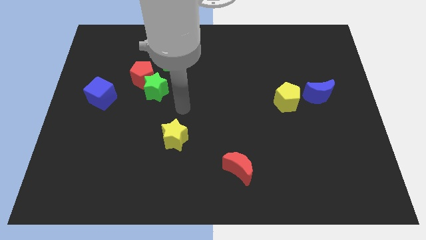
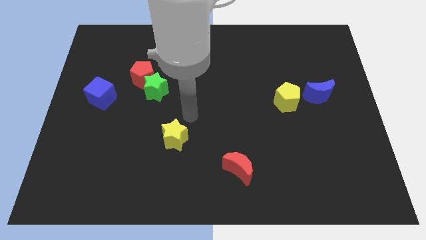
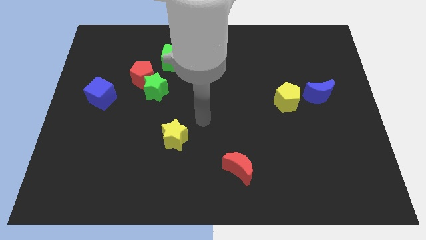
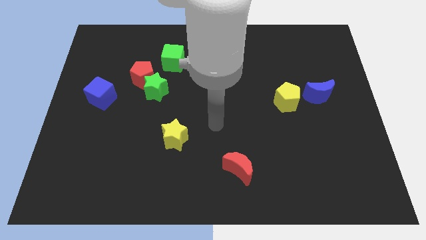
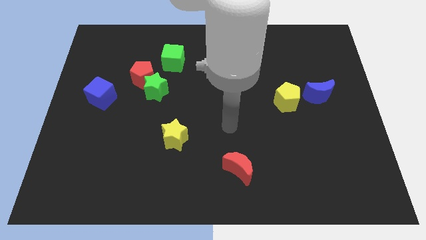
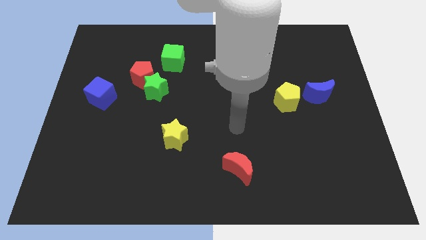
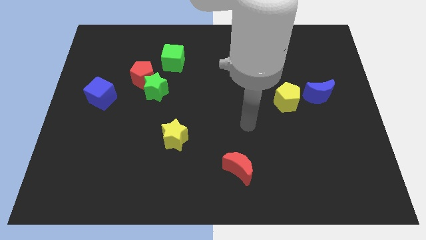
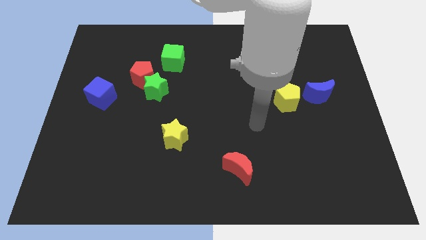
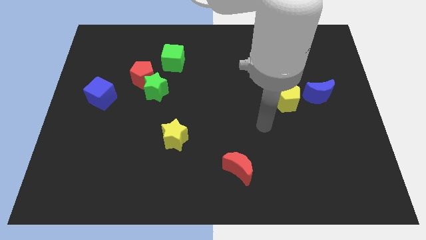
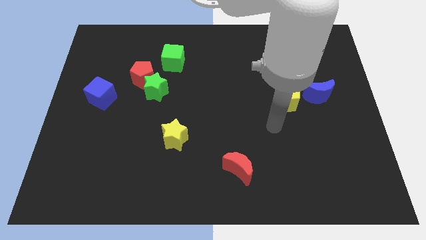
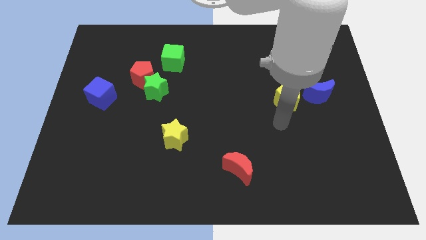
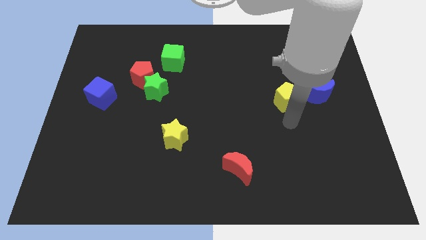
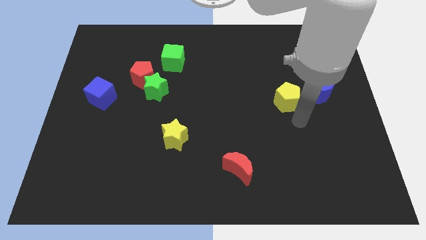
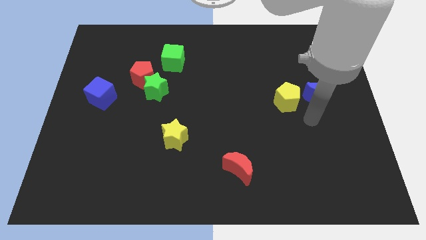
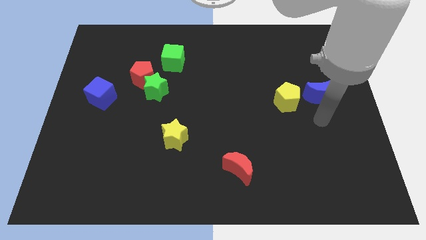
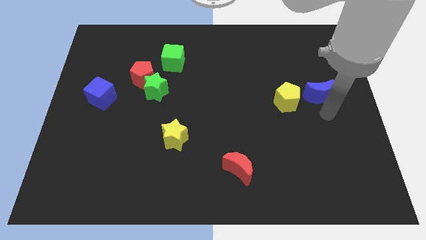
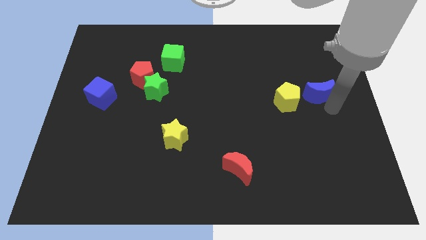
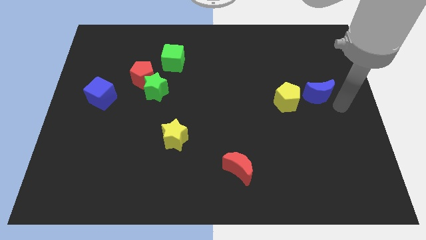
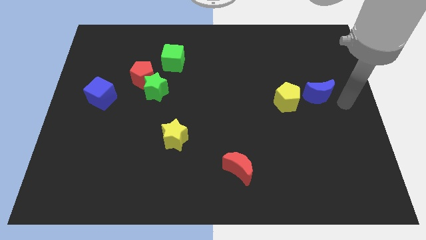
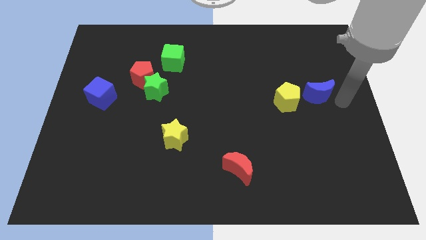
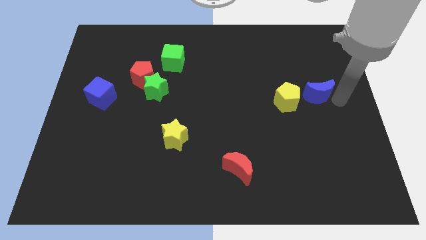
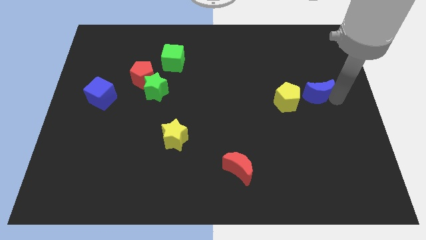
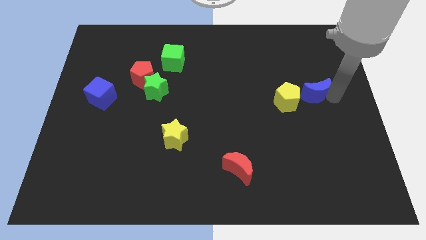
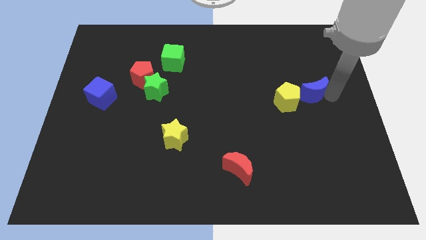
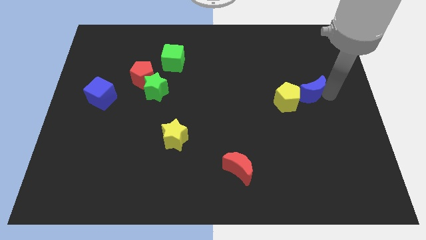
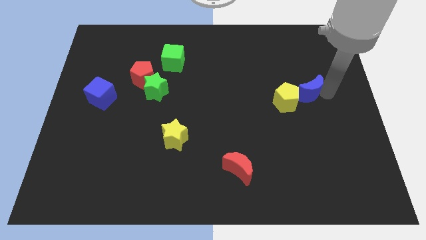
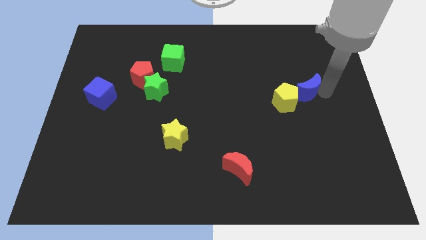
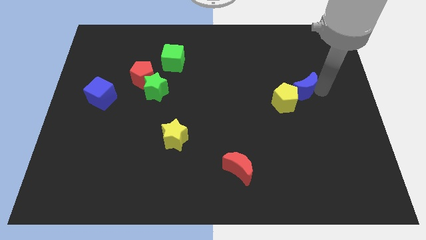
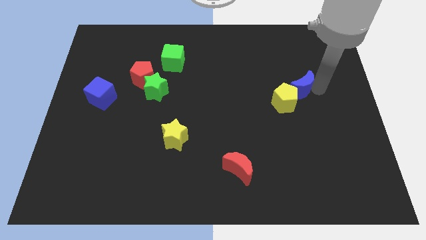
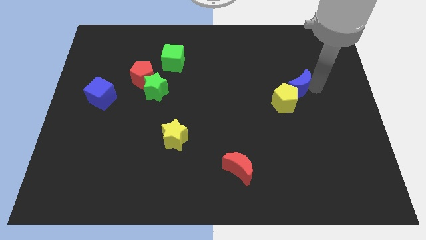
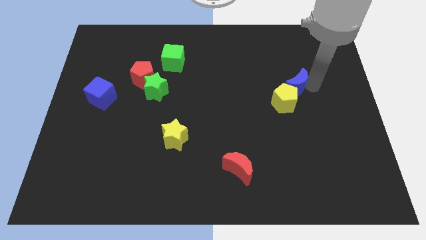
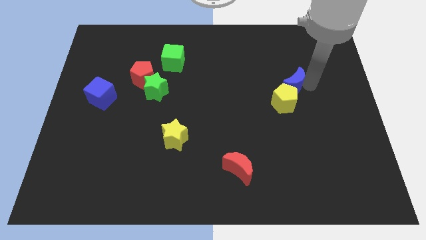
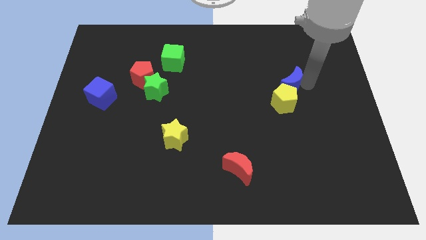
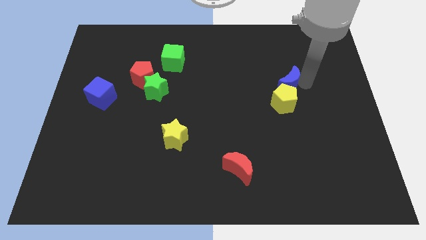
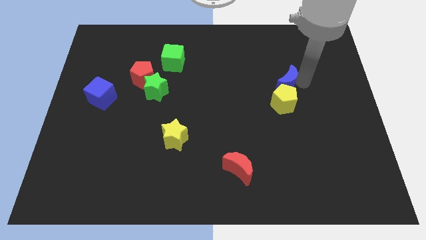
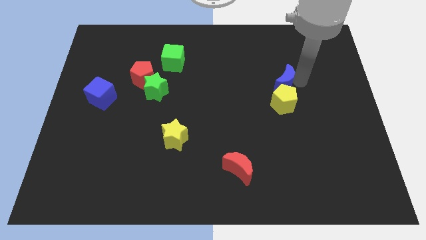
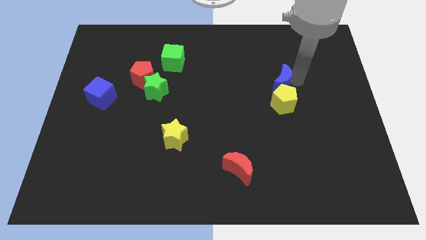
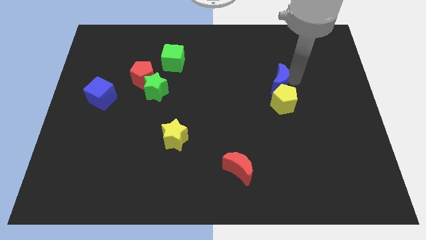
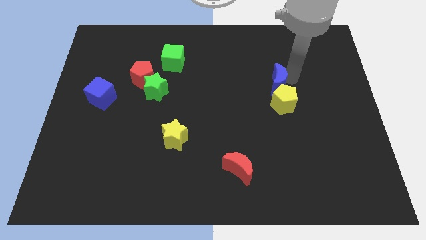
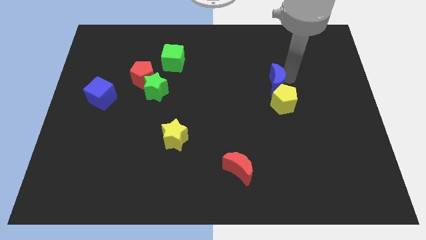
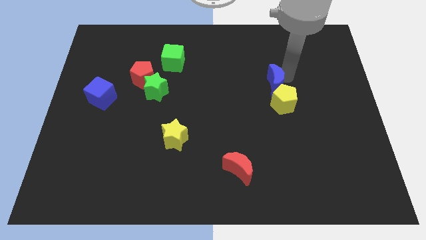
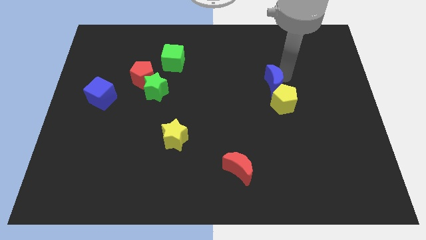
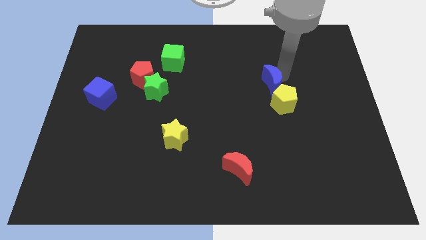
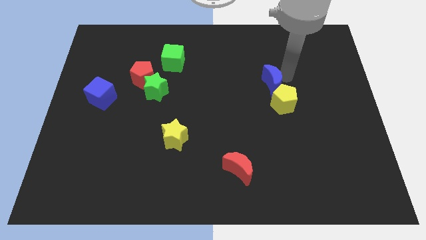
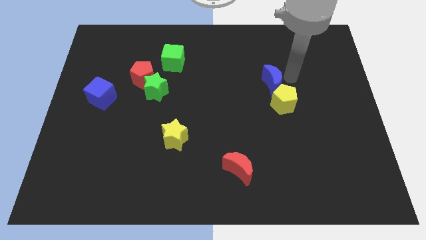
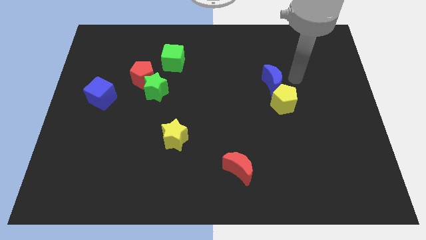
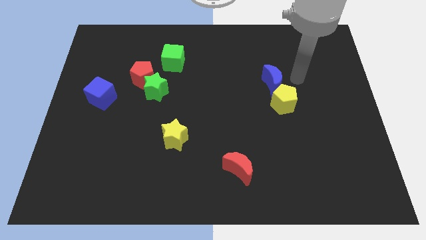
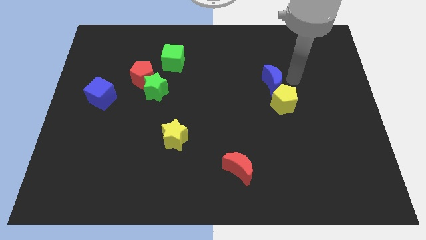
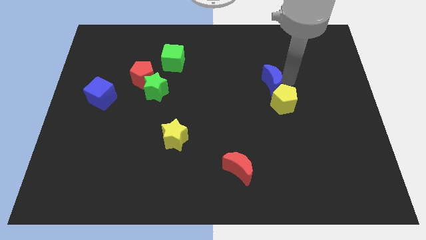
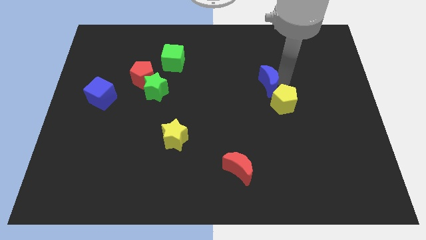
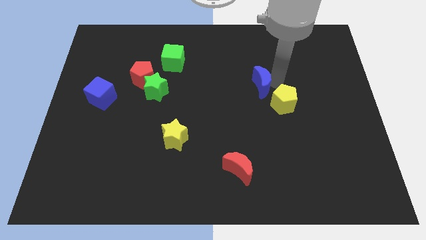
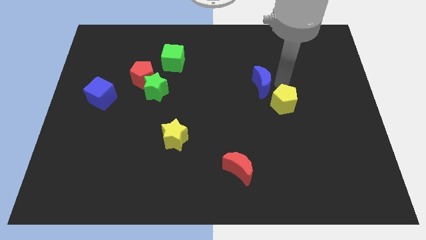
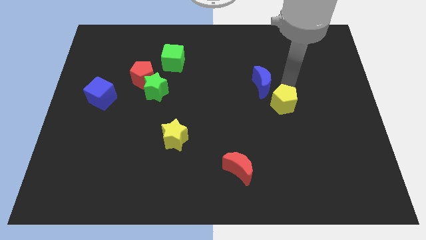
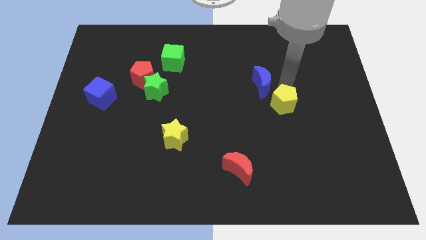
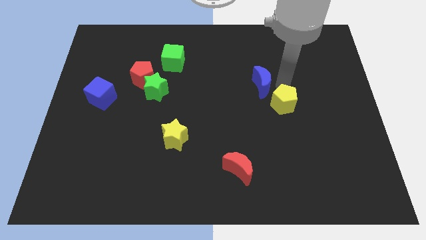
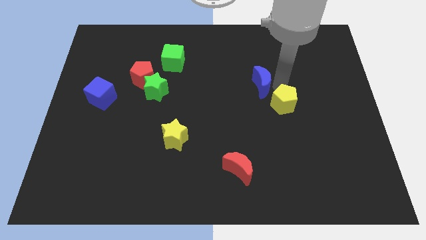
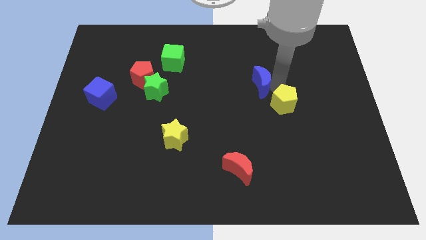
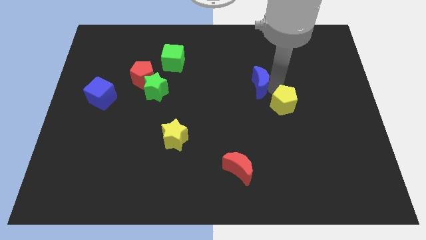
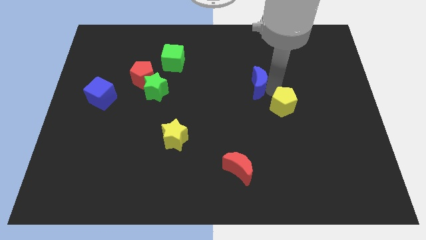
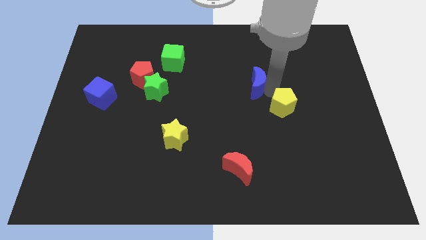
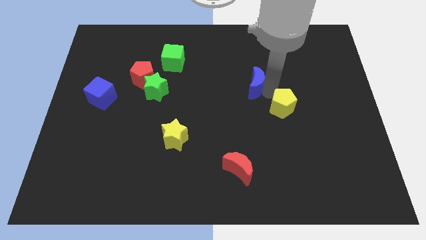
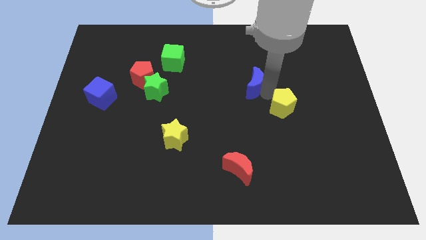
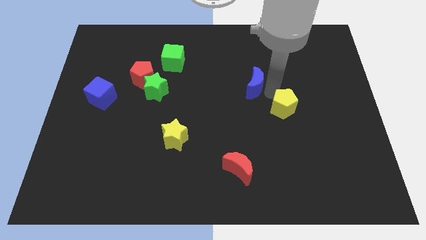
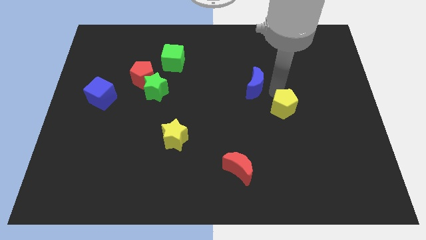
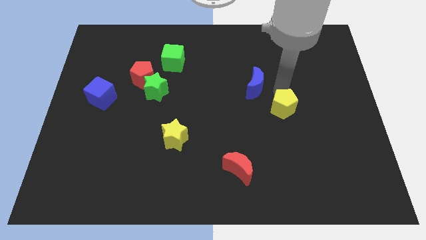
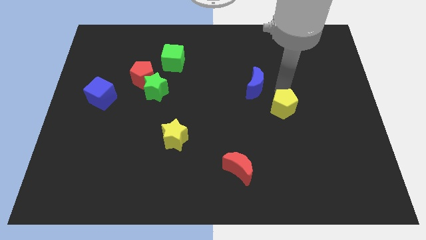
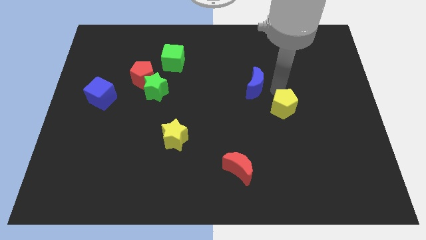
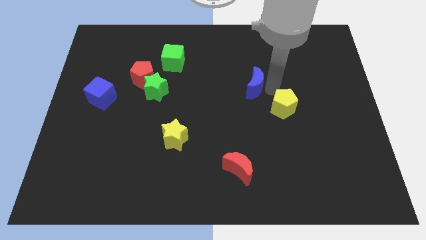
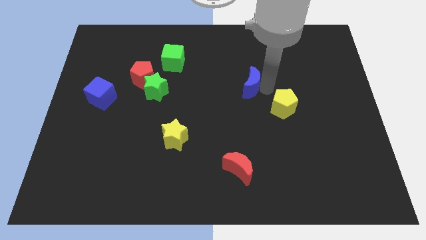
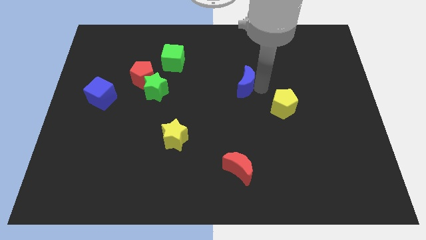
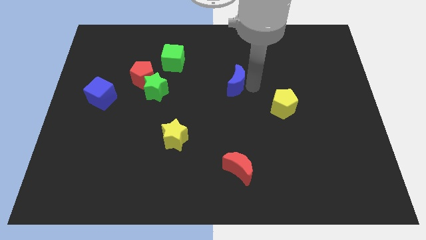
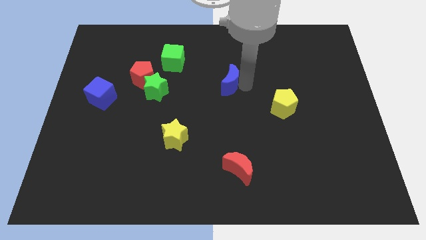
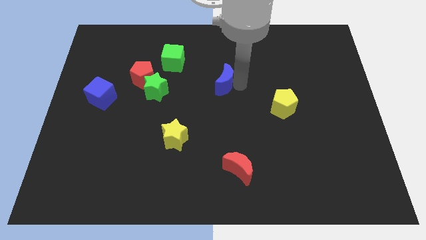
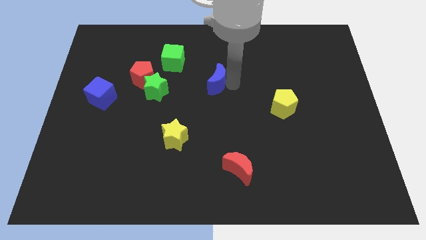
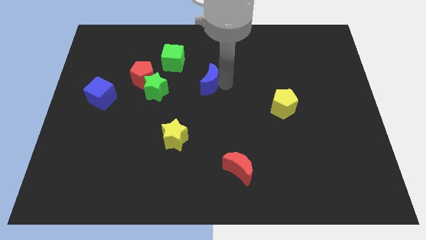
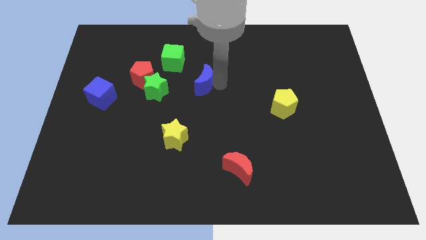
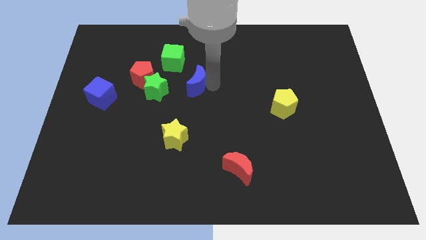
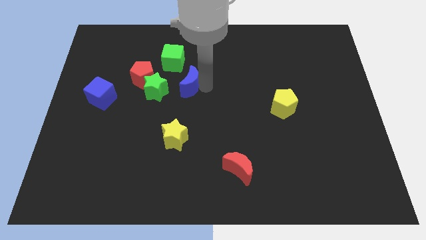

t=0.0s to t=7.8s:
slide the blue moon to the top right side of the green star
